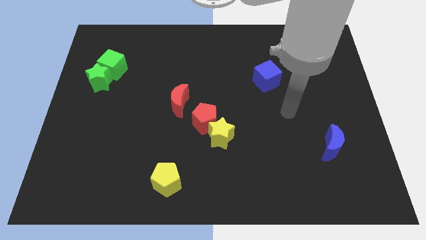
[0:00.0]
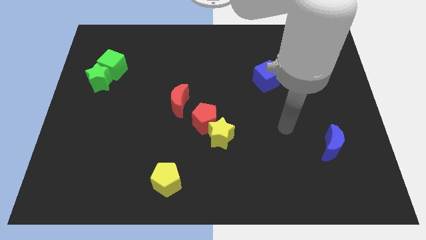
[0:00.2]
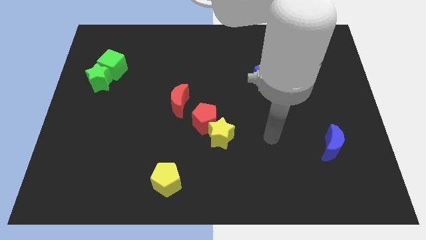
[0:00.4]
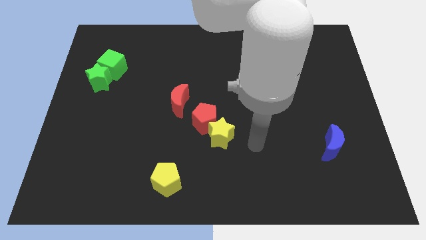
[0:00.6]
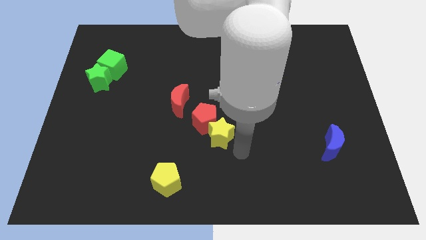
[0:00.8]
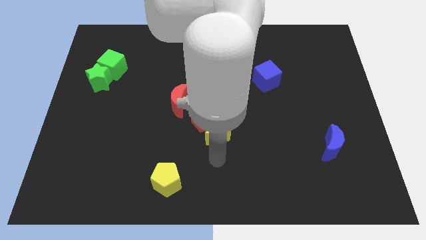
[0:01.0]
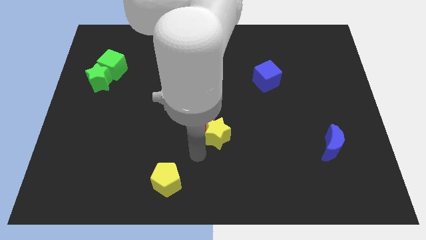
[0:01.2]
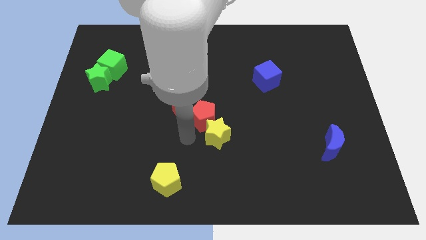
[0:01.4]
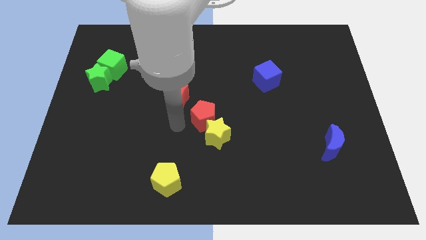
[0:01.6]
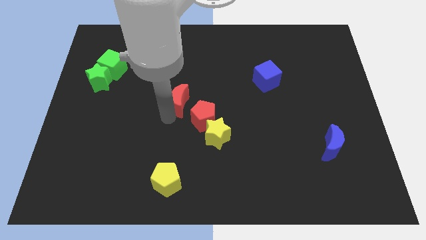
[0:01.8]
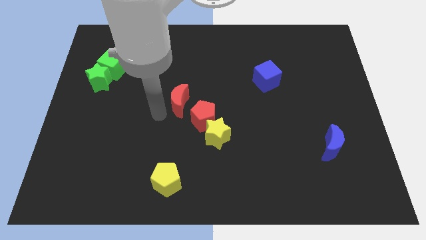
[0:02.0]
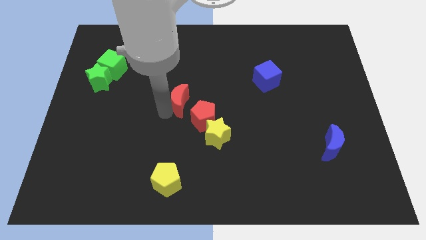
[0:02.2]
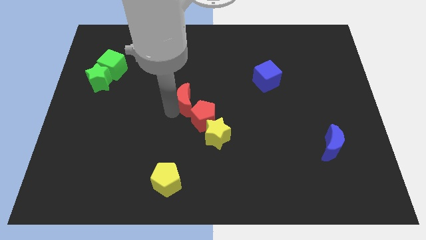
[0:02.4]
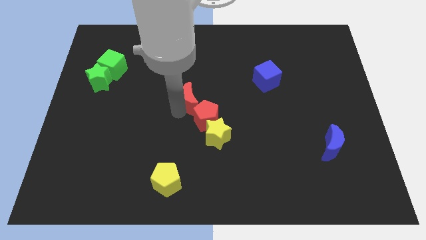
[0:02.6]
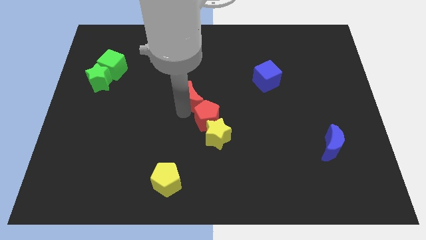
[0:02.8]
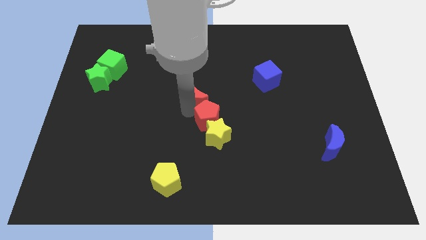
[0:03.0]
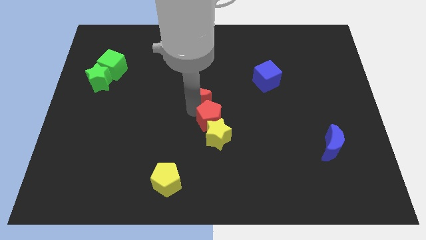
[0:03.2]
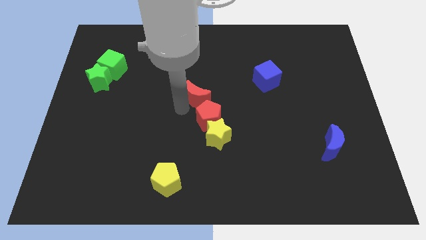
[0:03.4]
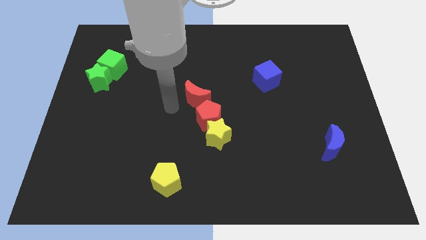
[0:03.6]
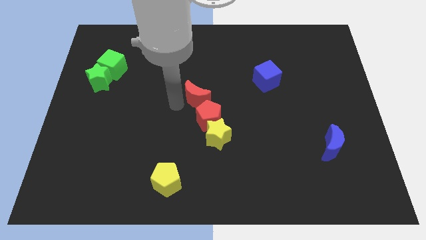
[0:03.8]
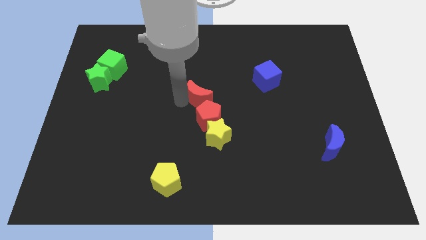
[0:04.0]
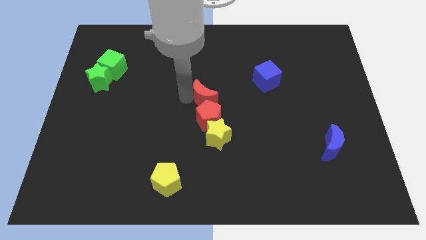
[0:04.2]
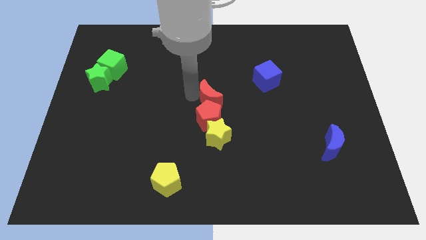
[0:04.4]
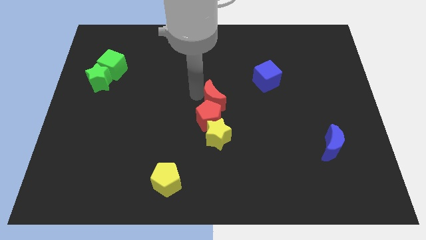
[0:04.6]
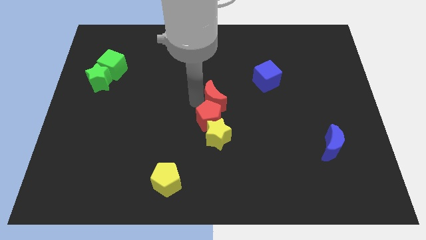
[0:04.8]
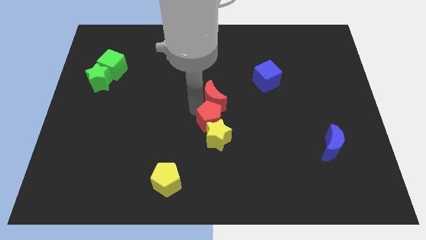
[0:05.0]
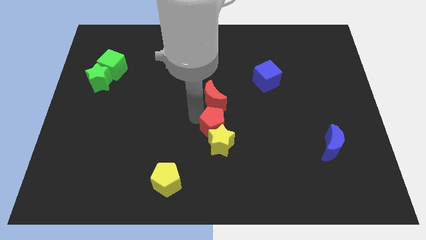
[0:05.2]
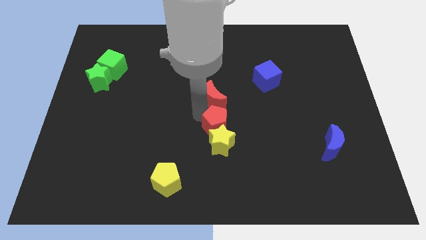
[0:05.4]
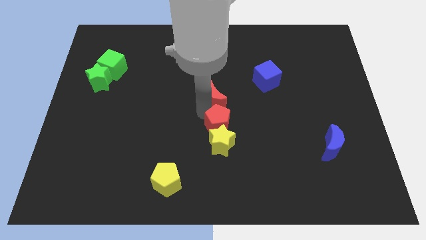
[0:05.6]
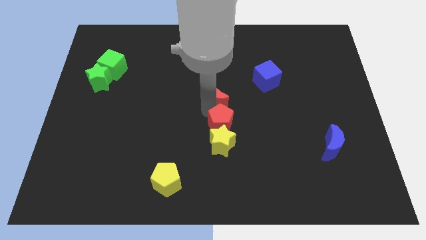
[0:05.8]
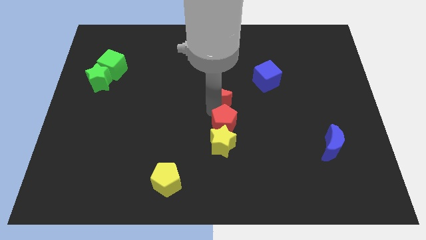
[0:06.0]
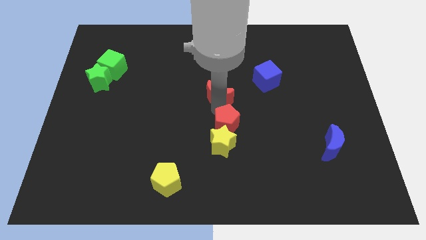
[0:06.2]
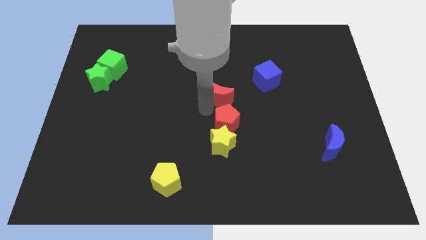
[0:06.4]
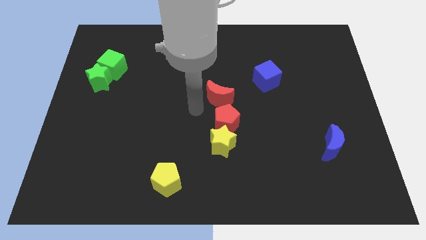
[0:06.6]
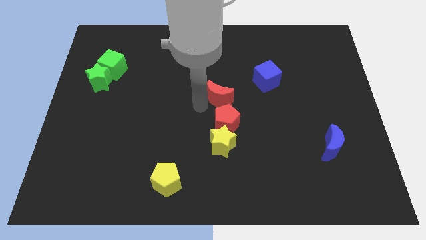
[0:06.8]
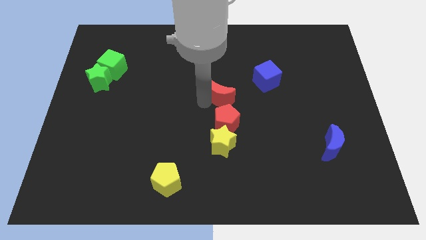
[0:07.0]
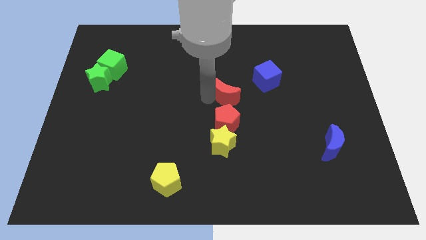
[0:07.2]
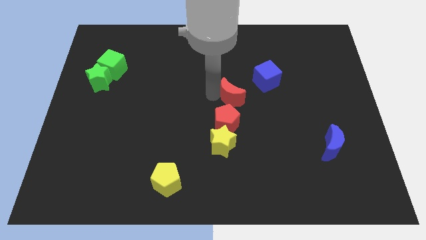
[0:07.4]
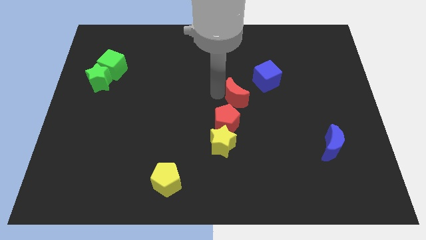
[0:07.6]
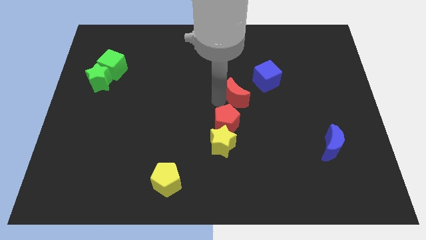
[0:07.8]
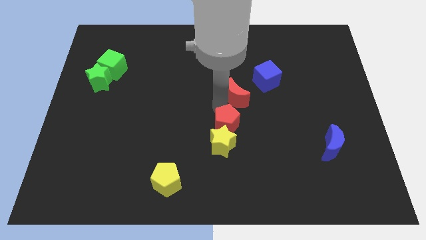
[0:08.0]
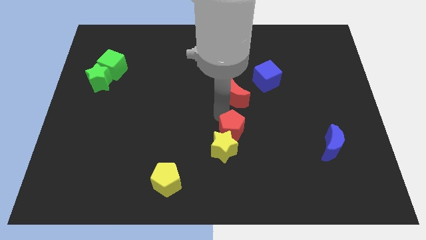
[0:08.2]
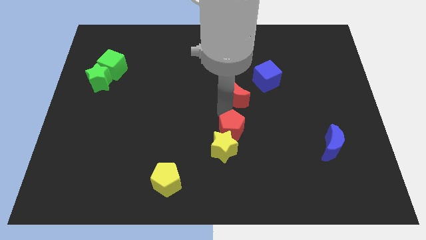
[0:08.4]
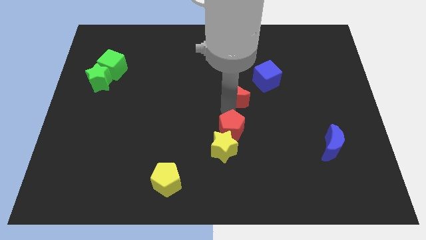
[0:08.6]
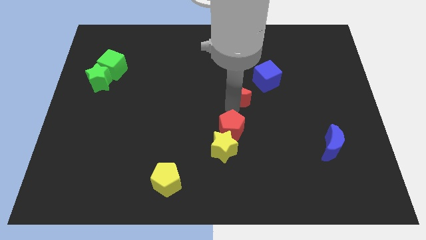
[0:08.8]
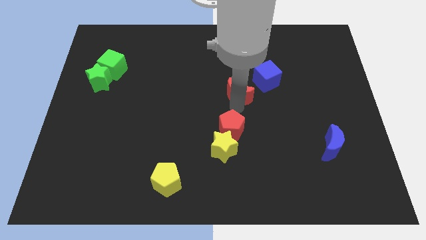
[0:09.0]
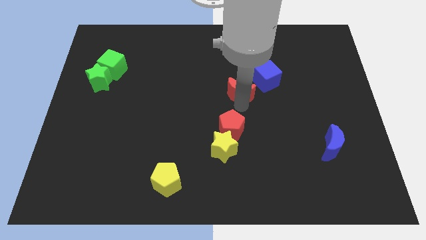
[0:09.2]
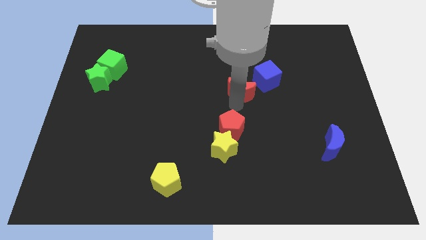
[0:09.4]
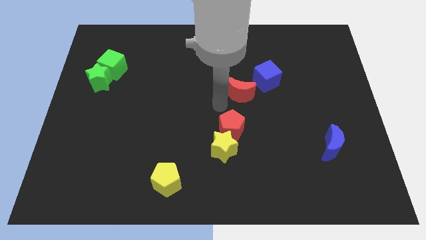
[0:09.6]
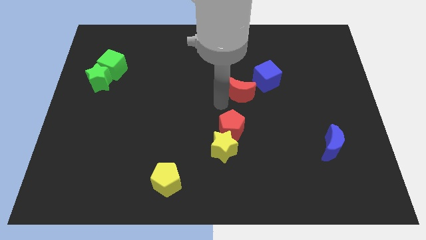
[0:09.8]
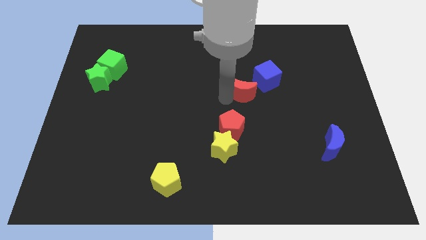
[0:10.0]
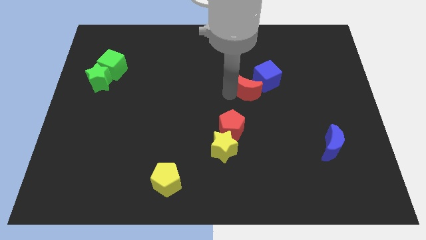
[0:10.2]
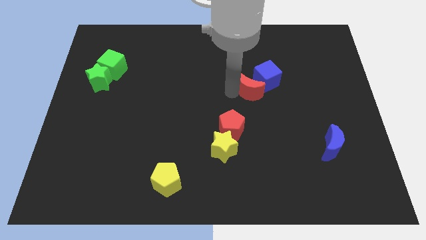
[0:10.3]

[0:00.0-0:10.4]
put the red moon close to the blue cube

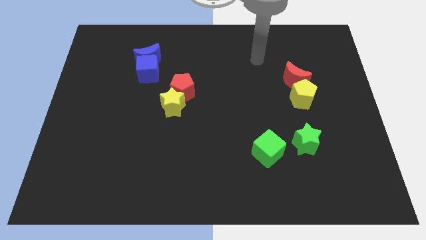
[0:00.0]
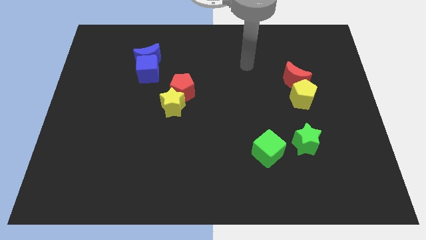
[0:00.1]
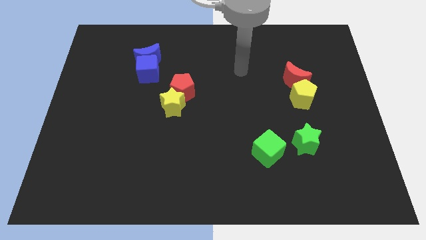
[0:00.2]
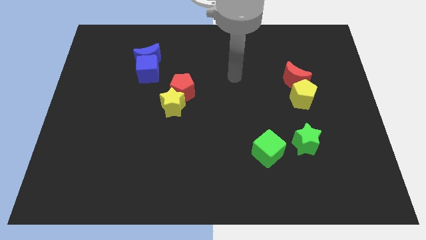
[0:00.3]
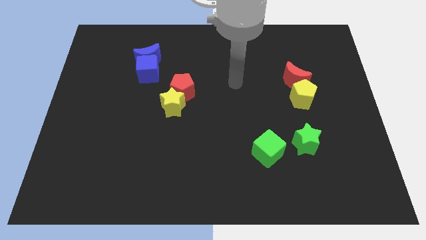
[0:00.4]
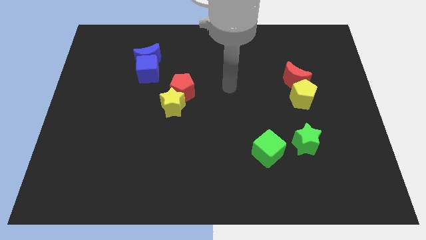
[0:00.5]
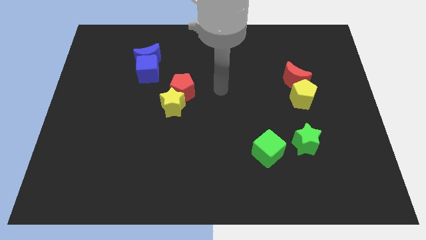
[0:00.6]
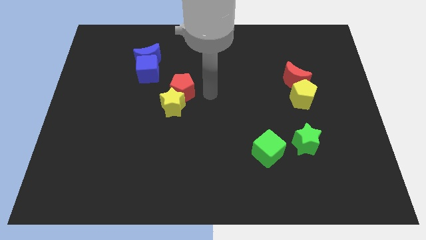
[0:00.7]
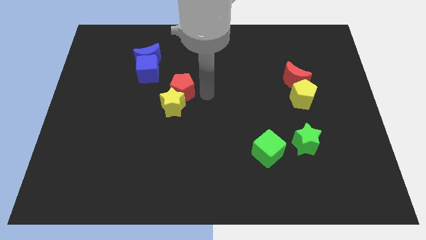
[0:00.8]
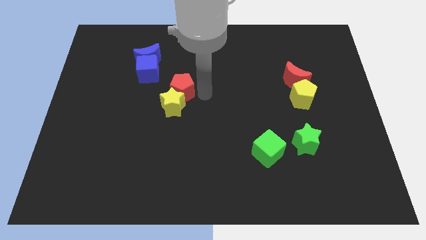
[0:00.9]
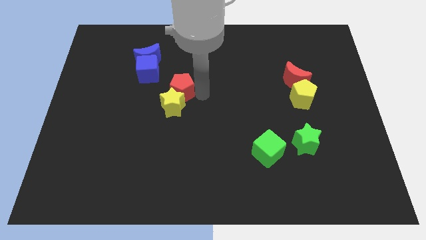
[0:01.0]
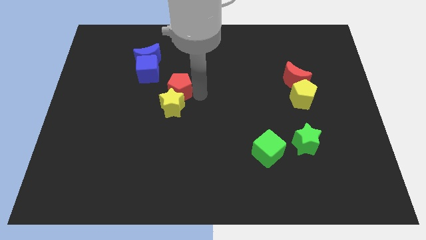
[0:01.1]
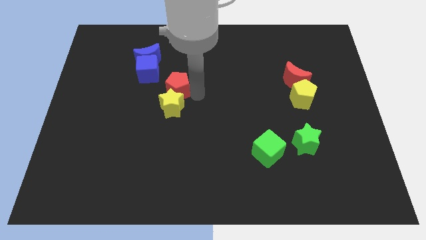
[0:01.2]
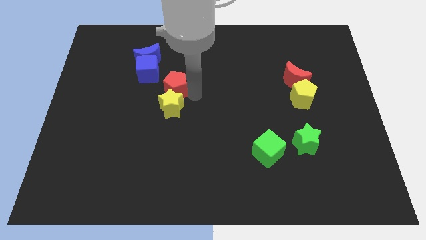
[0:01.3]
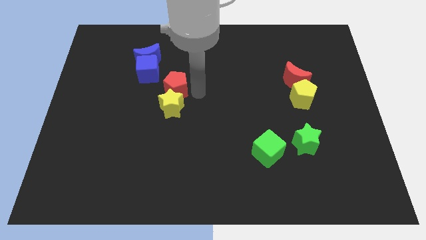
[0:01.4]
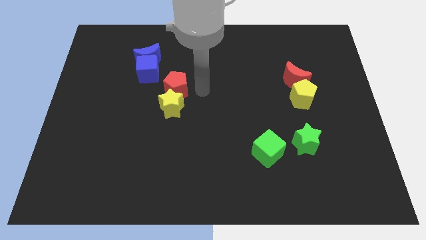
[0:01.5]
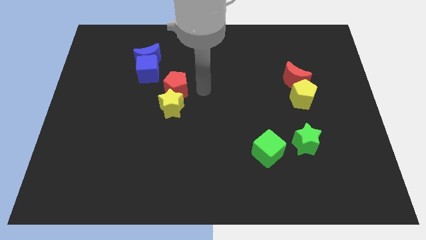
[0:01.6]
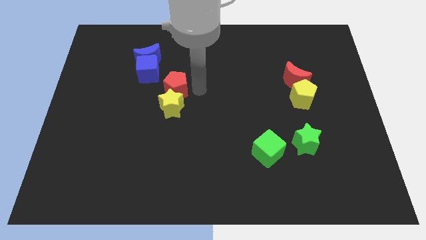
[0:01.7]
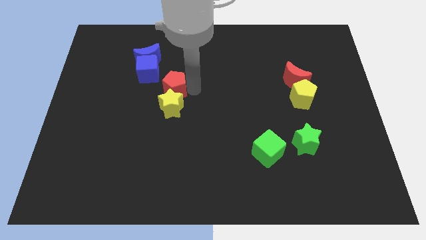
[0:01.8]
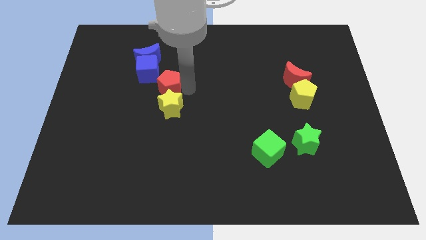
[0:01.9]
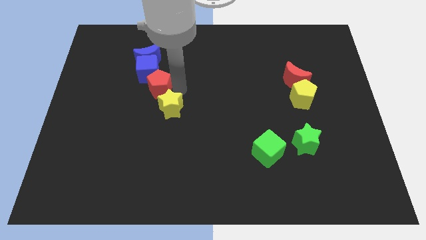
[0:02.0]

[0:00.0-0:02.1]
move the red pentagon next to the blue cube
